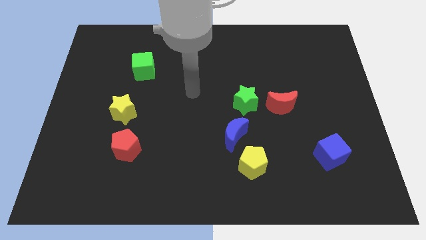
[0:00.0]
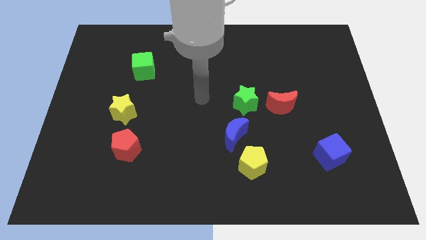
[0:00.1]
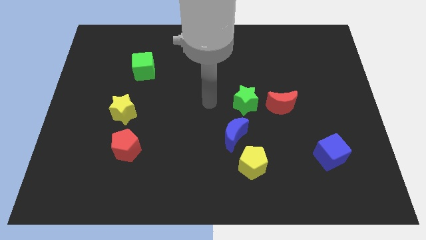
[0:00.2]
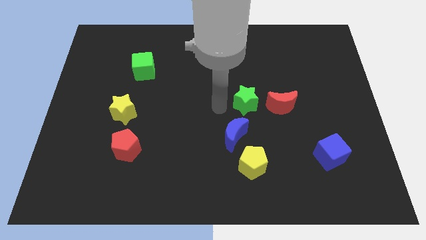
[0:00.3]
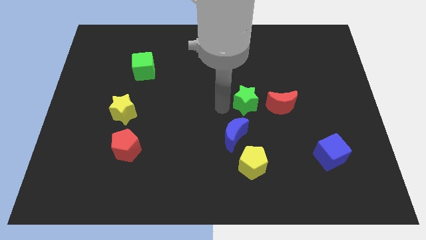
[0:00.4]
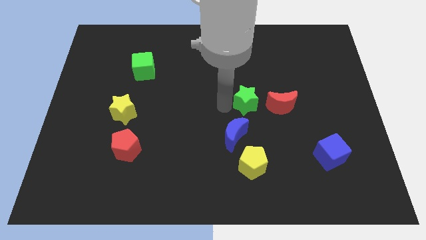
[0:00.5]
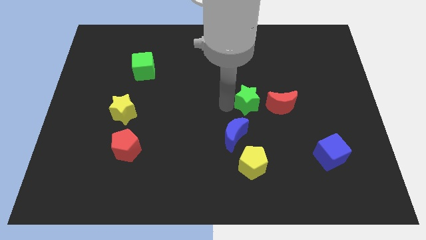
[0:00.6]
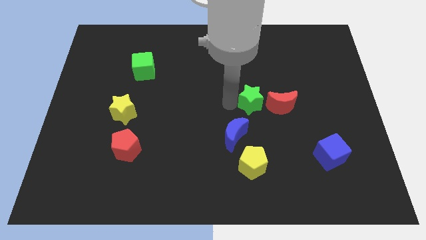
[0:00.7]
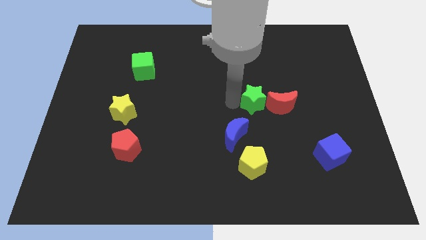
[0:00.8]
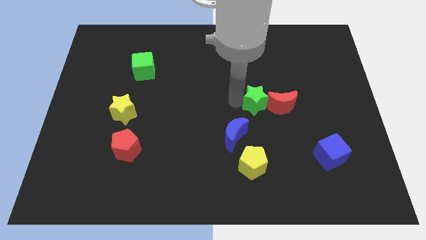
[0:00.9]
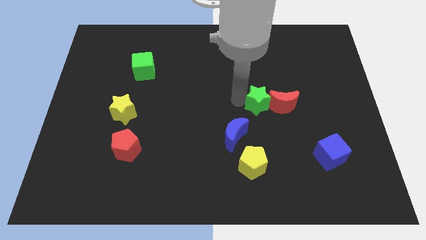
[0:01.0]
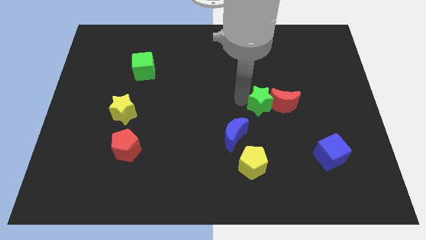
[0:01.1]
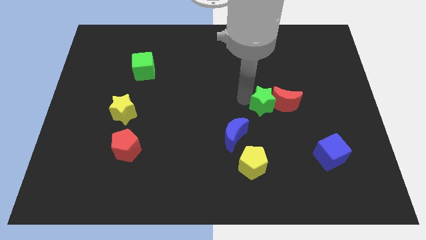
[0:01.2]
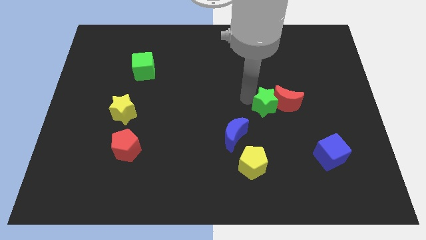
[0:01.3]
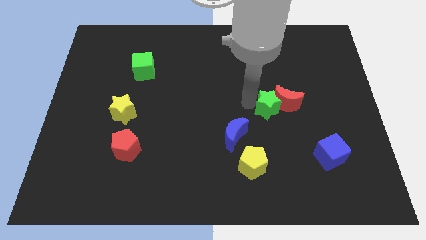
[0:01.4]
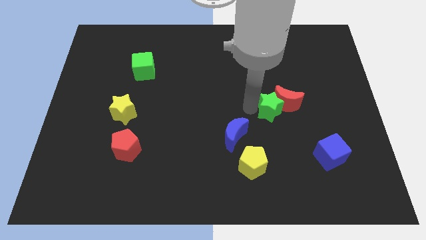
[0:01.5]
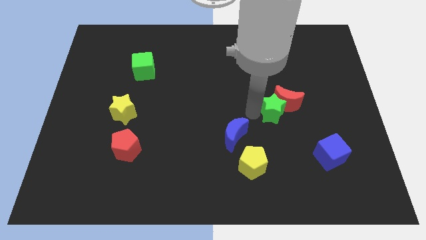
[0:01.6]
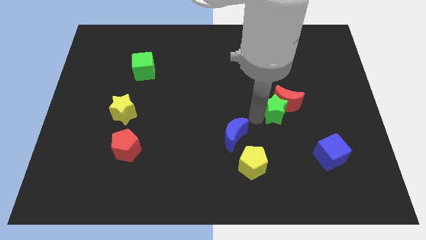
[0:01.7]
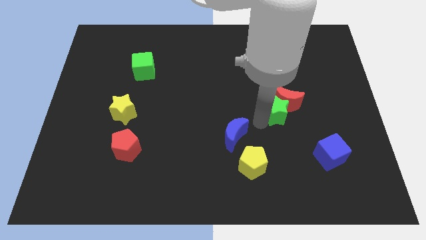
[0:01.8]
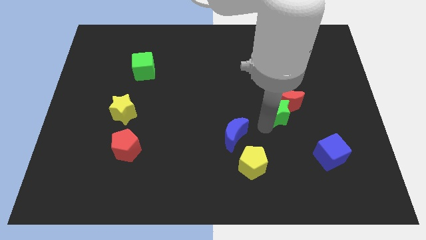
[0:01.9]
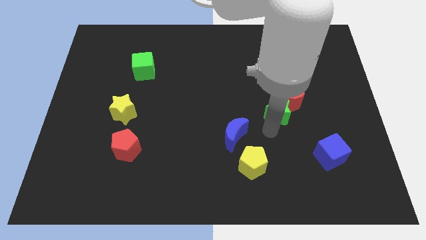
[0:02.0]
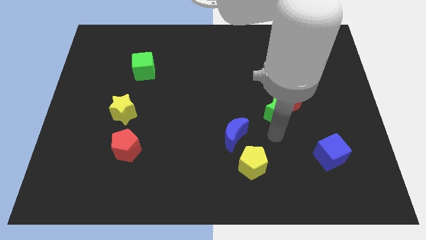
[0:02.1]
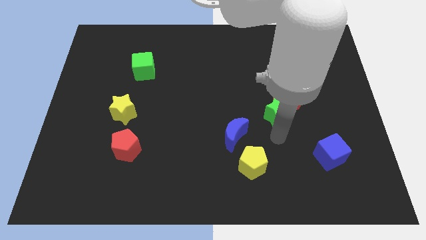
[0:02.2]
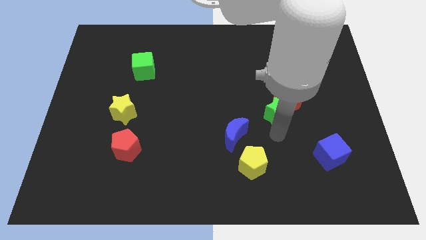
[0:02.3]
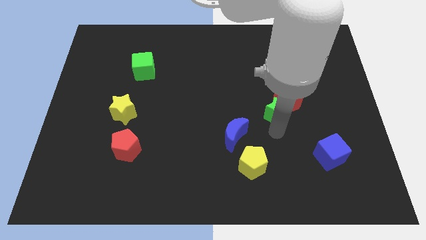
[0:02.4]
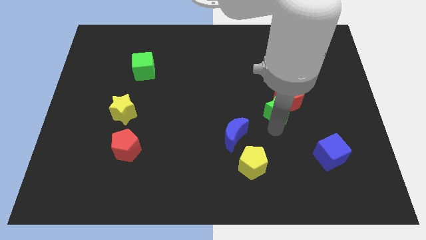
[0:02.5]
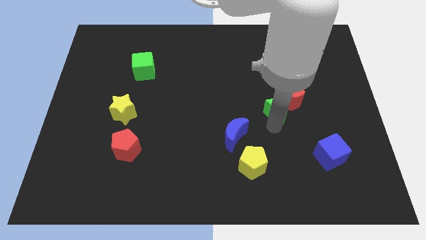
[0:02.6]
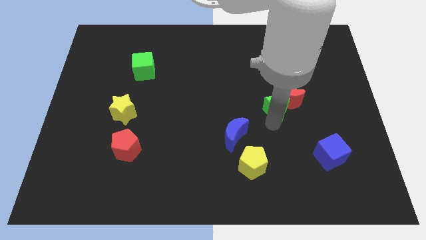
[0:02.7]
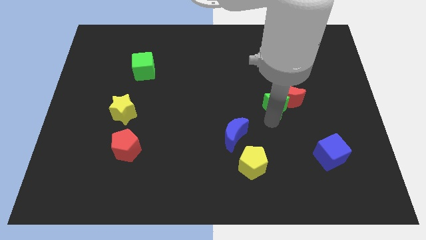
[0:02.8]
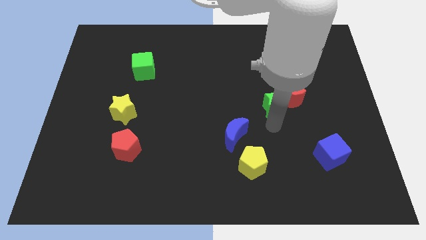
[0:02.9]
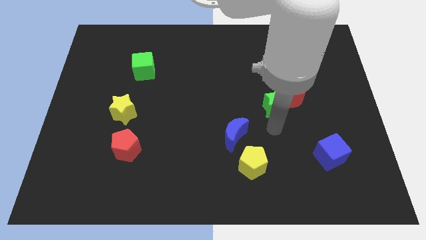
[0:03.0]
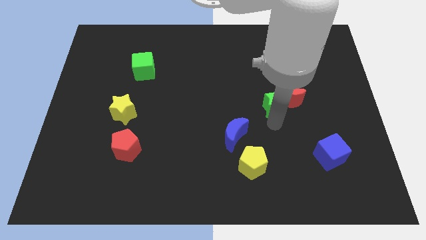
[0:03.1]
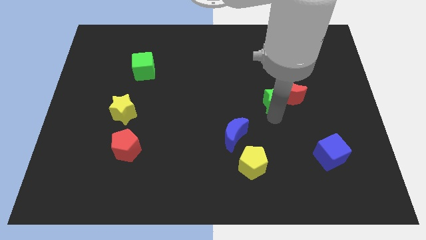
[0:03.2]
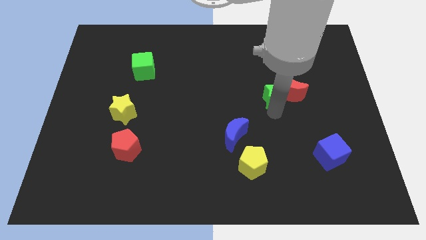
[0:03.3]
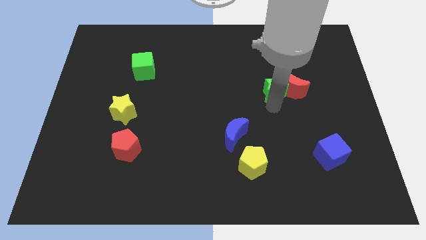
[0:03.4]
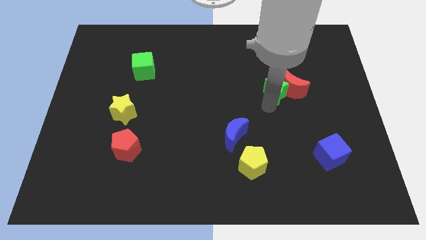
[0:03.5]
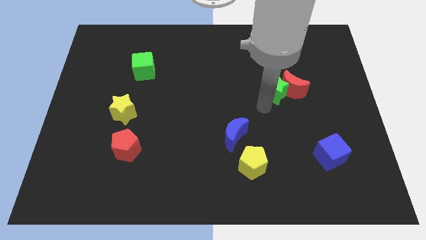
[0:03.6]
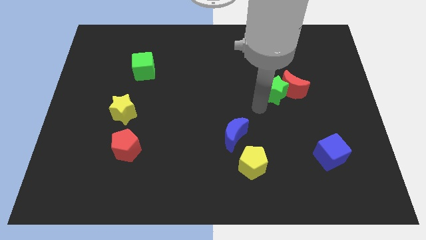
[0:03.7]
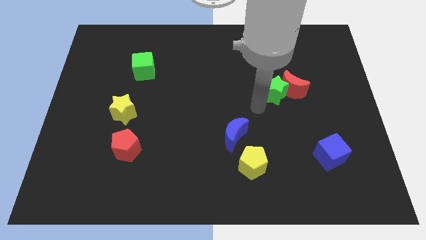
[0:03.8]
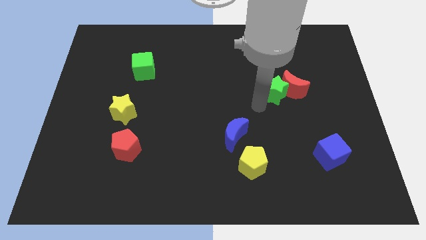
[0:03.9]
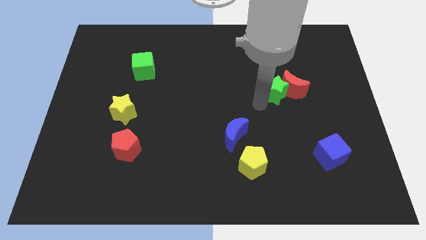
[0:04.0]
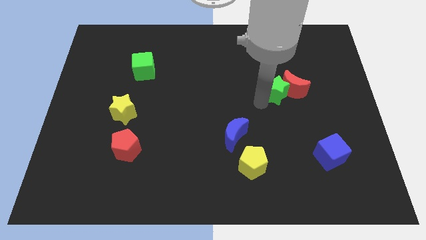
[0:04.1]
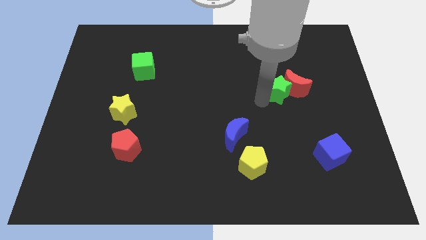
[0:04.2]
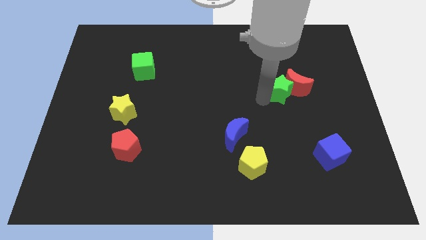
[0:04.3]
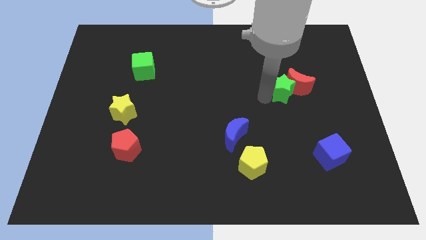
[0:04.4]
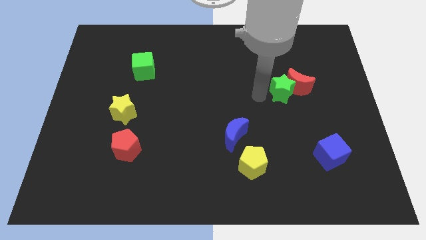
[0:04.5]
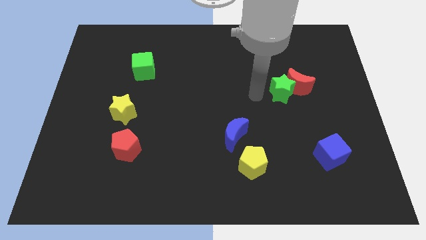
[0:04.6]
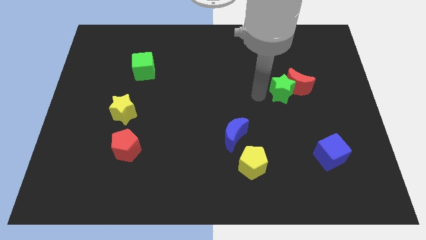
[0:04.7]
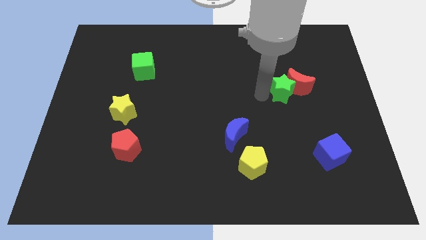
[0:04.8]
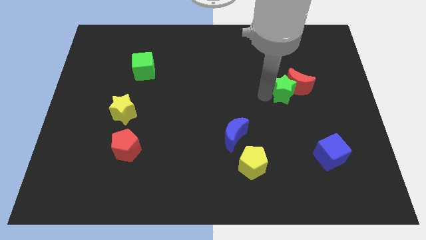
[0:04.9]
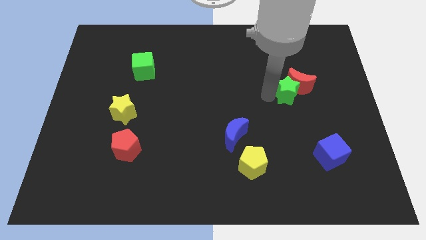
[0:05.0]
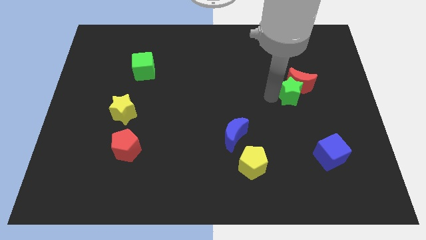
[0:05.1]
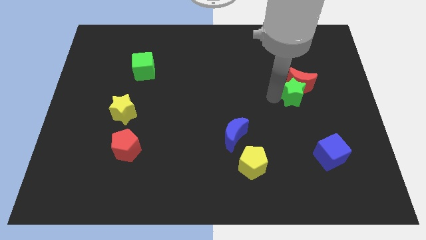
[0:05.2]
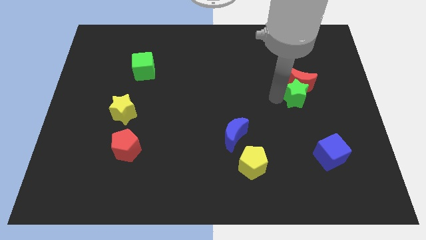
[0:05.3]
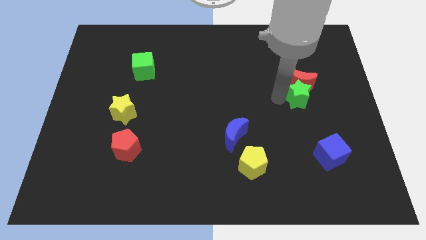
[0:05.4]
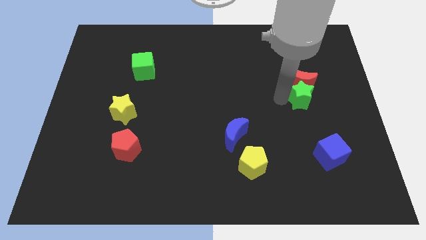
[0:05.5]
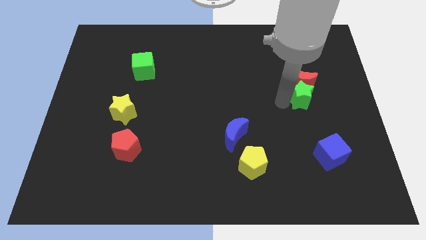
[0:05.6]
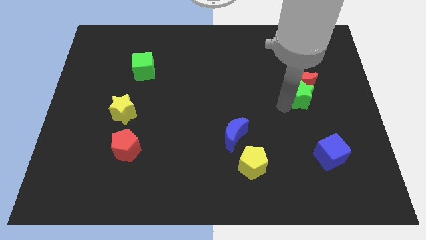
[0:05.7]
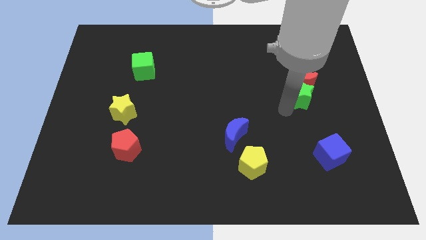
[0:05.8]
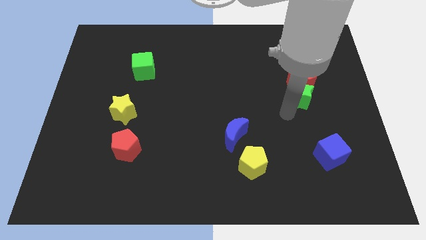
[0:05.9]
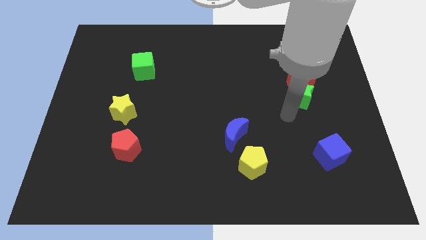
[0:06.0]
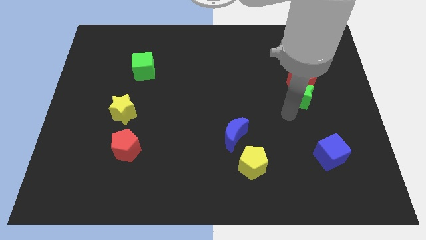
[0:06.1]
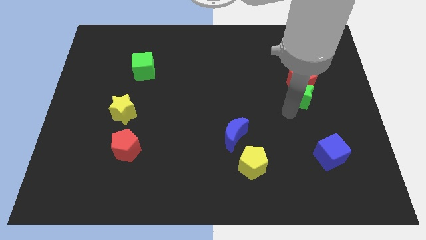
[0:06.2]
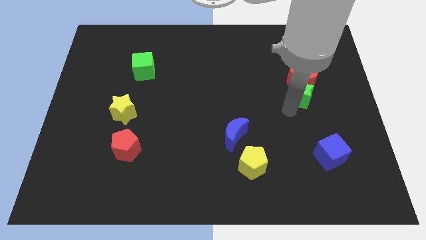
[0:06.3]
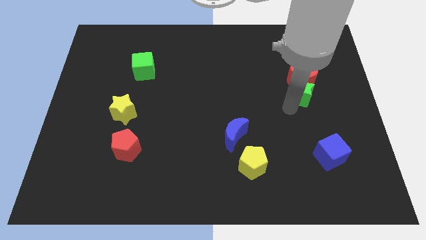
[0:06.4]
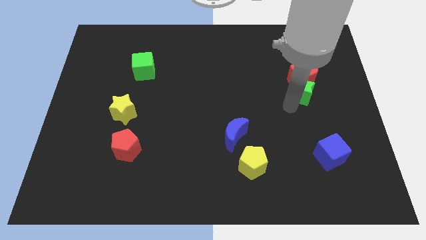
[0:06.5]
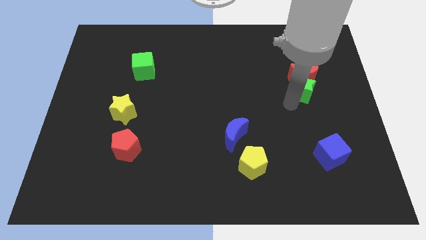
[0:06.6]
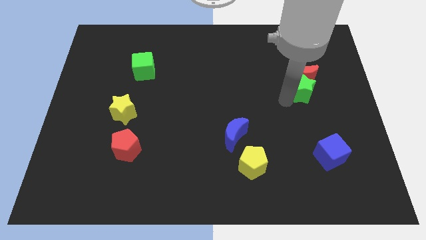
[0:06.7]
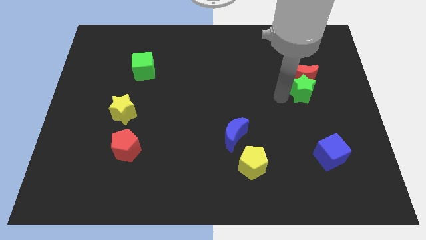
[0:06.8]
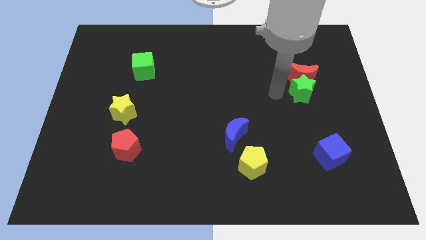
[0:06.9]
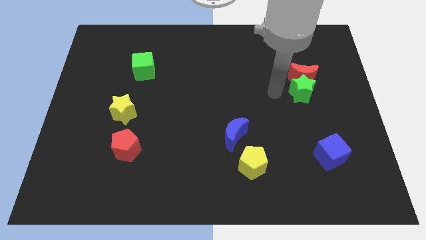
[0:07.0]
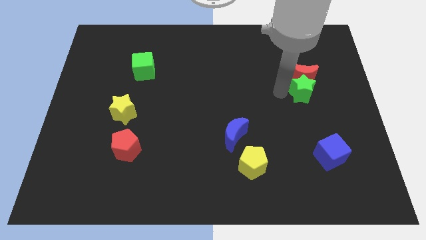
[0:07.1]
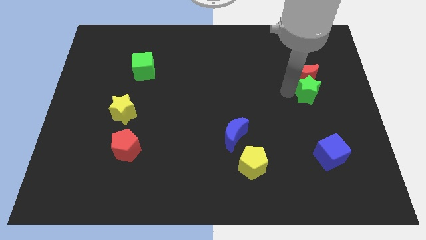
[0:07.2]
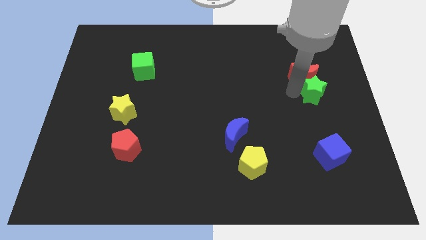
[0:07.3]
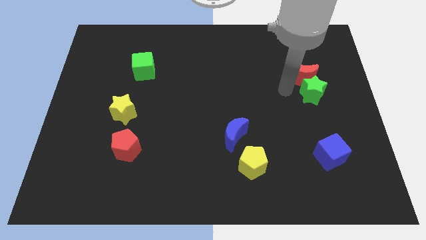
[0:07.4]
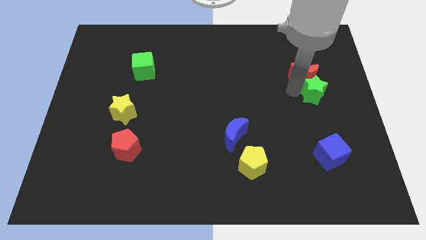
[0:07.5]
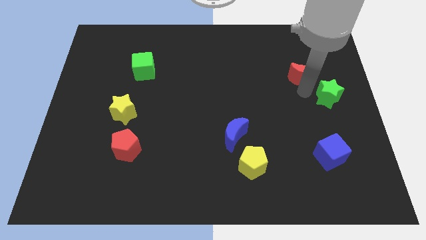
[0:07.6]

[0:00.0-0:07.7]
move the green star to the right side
